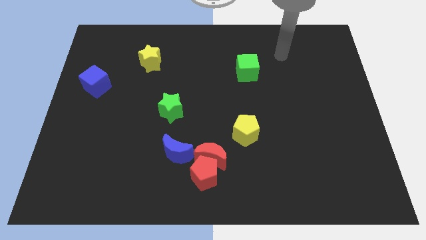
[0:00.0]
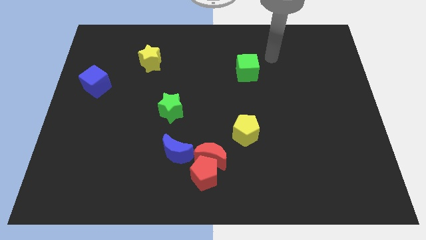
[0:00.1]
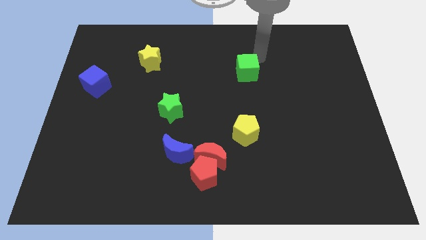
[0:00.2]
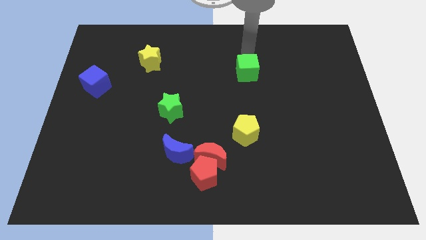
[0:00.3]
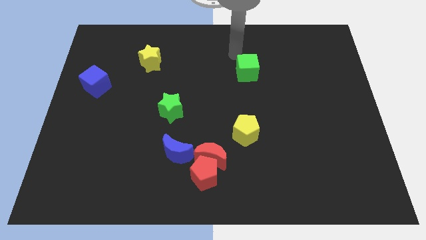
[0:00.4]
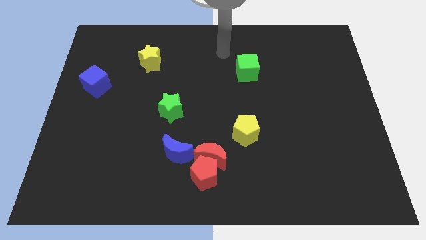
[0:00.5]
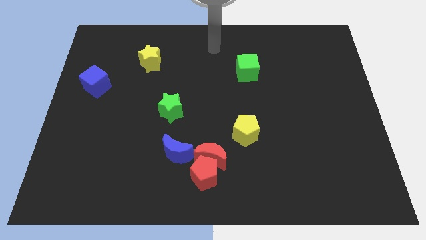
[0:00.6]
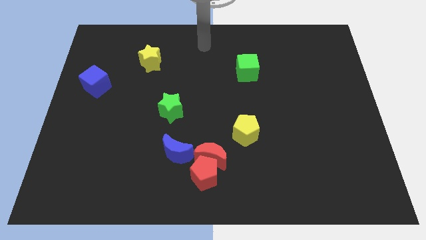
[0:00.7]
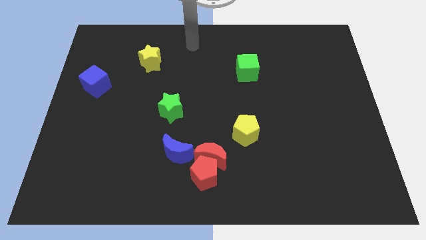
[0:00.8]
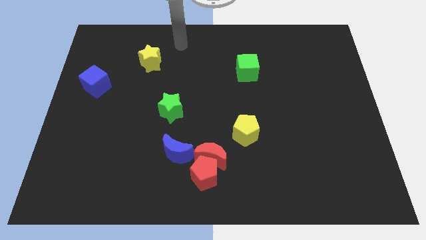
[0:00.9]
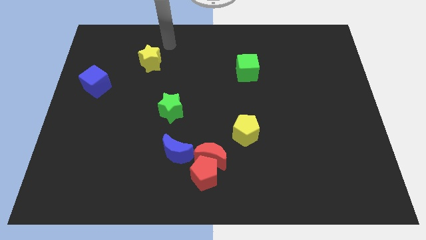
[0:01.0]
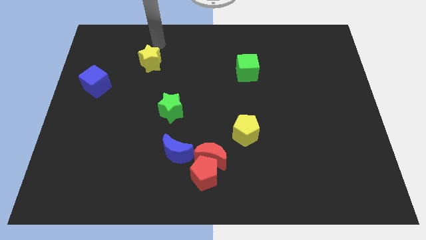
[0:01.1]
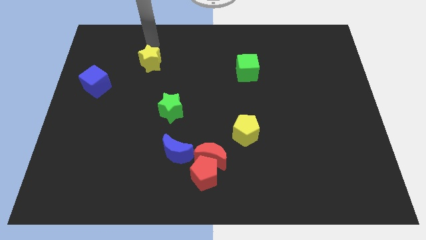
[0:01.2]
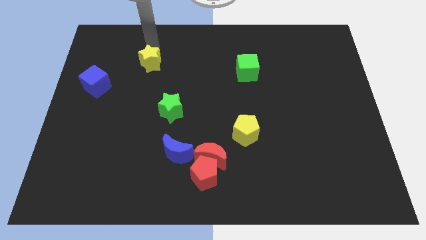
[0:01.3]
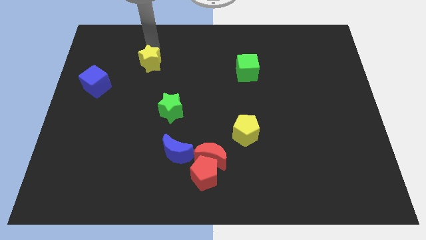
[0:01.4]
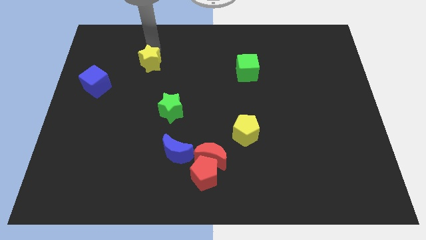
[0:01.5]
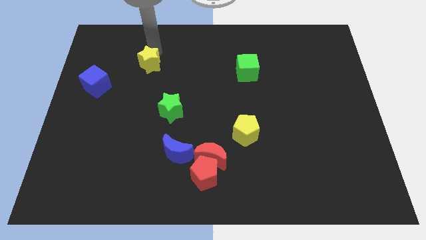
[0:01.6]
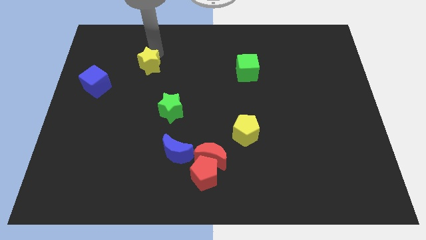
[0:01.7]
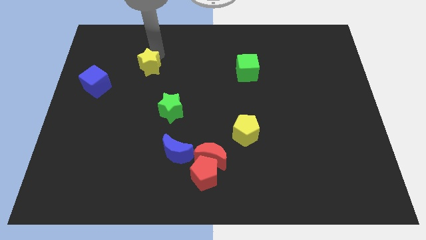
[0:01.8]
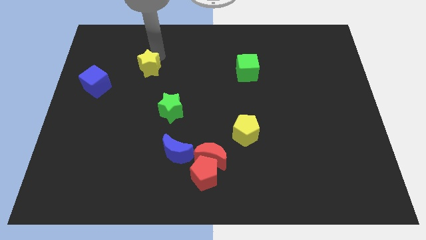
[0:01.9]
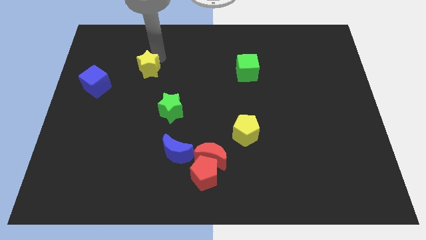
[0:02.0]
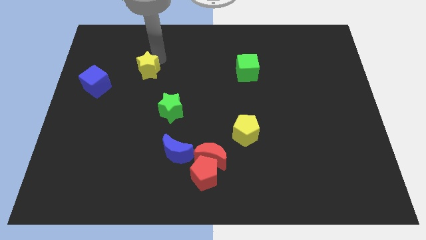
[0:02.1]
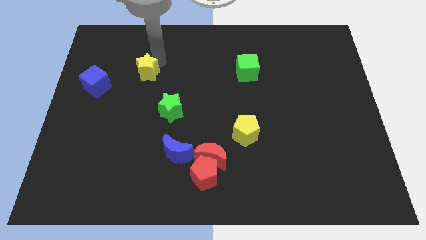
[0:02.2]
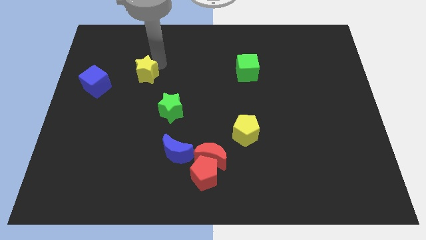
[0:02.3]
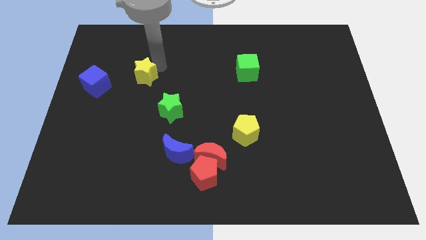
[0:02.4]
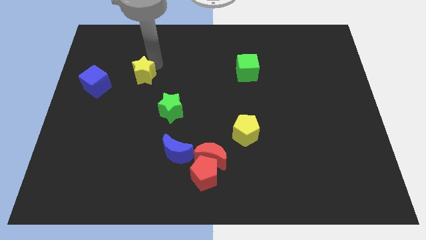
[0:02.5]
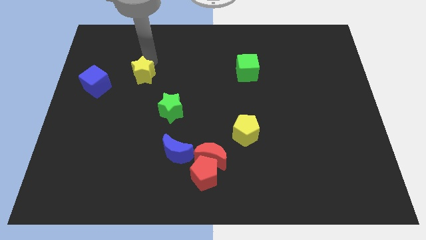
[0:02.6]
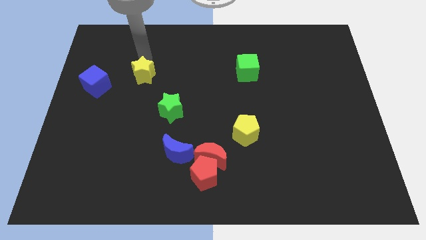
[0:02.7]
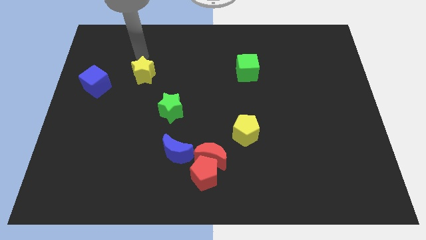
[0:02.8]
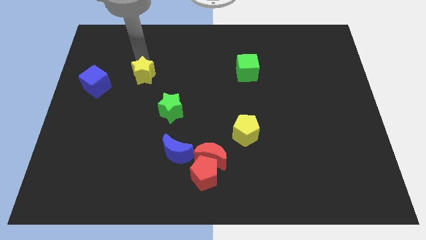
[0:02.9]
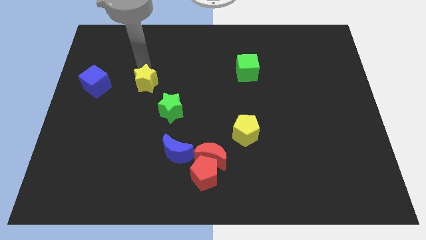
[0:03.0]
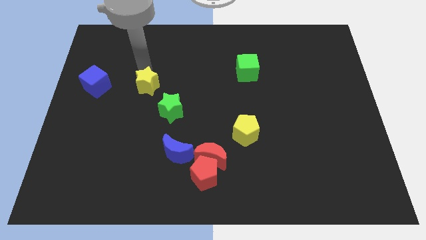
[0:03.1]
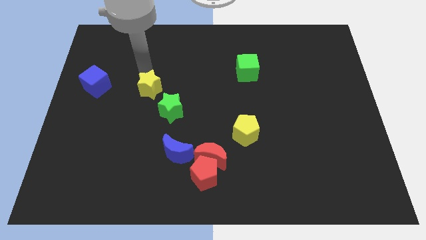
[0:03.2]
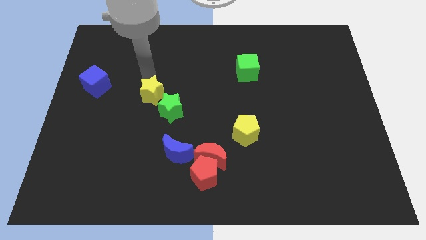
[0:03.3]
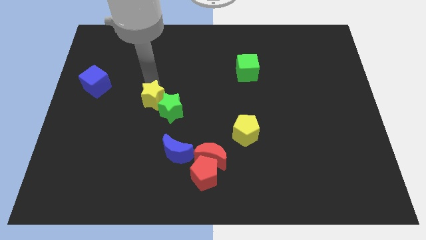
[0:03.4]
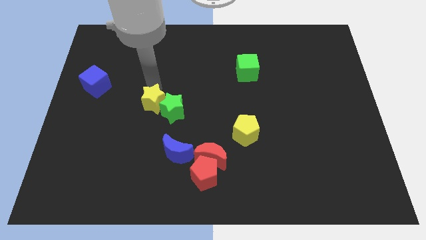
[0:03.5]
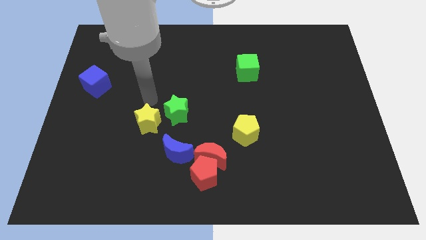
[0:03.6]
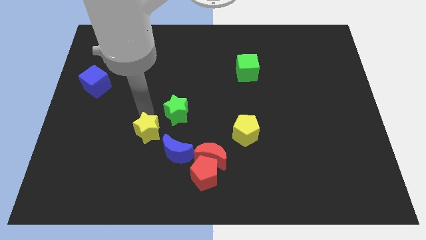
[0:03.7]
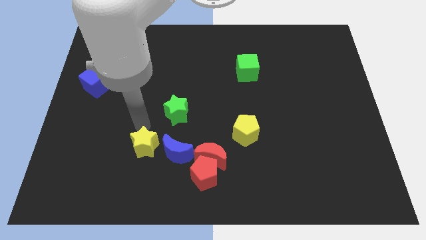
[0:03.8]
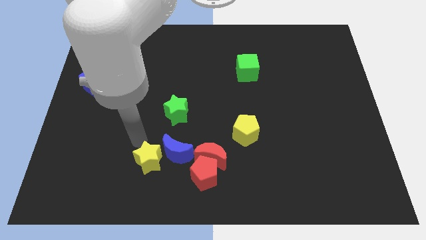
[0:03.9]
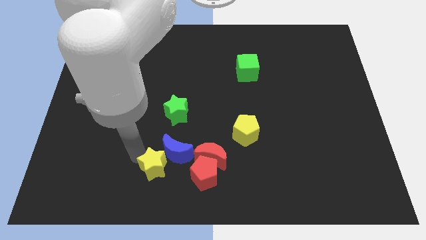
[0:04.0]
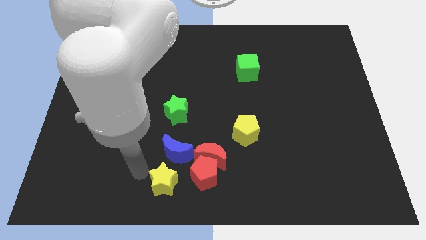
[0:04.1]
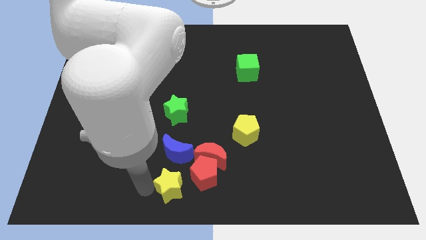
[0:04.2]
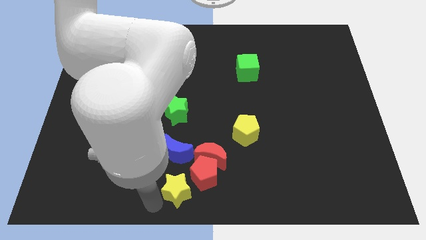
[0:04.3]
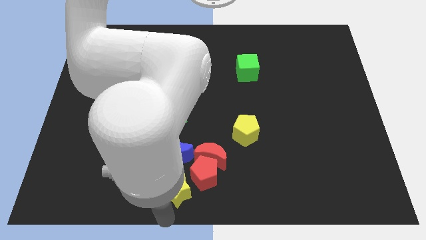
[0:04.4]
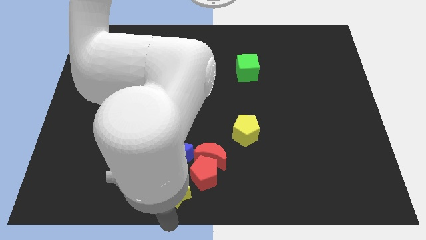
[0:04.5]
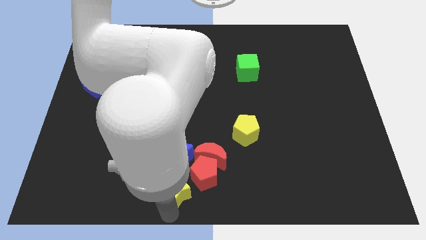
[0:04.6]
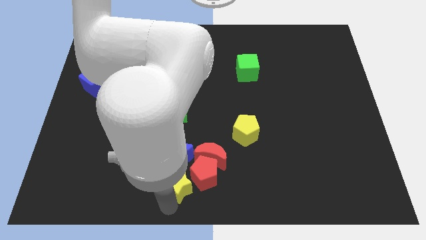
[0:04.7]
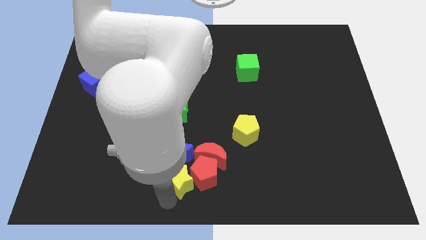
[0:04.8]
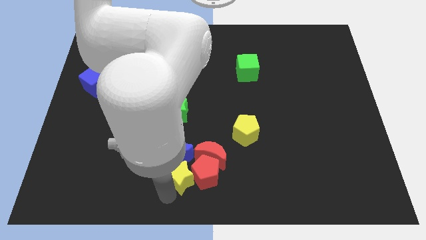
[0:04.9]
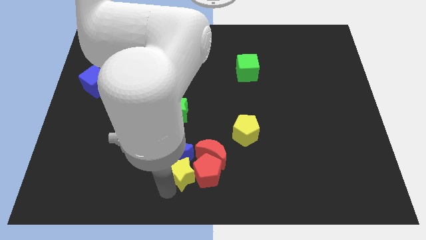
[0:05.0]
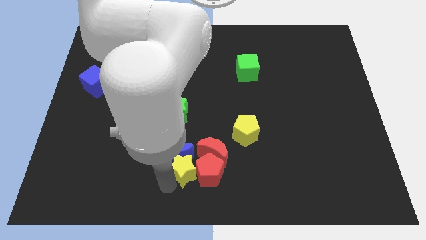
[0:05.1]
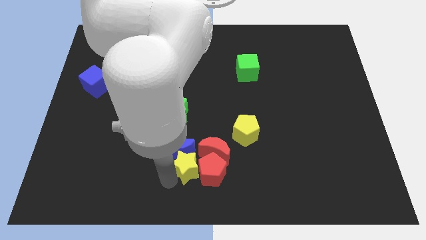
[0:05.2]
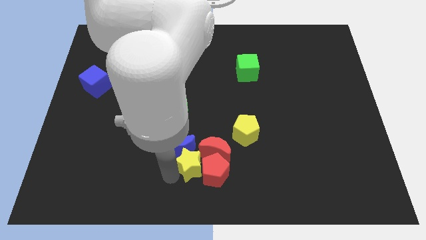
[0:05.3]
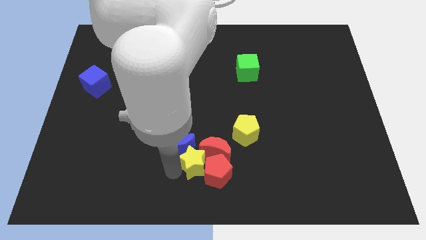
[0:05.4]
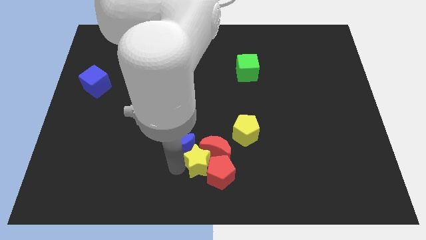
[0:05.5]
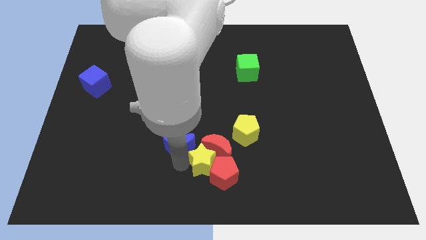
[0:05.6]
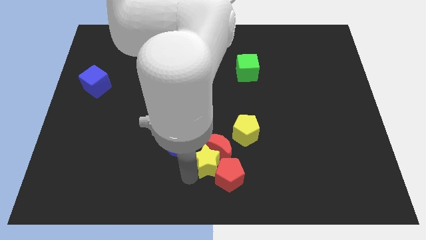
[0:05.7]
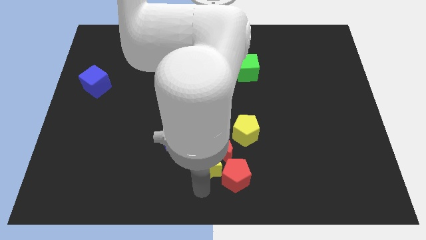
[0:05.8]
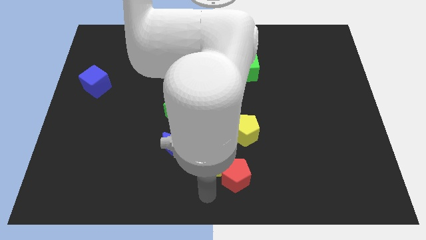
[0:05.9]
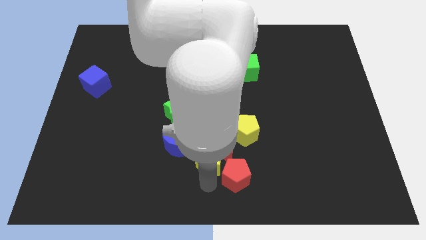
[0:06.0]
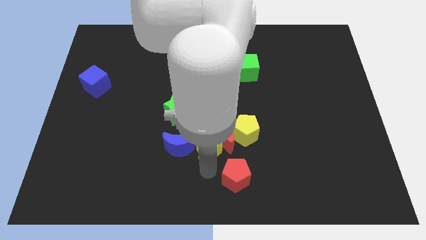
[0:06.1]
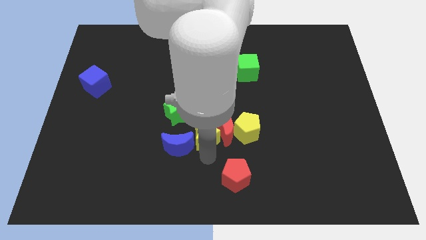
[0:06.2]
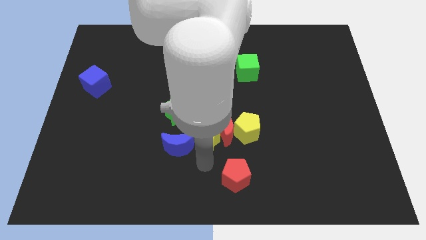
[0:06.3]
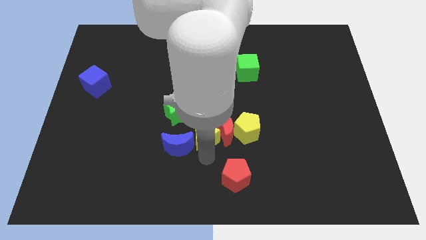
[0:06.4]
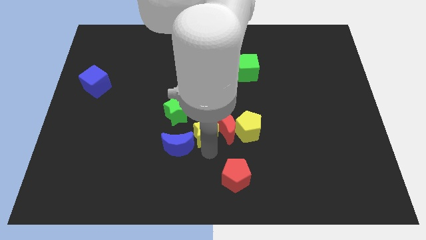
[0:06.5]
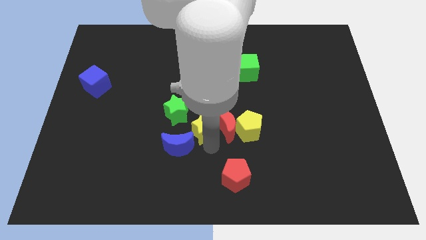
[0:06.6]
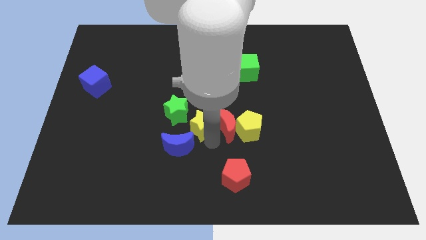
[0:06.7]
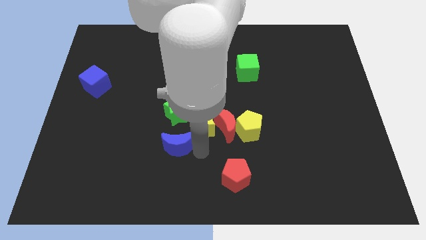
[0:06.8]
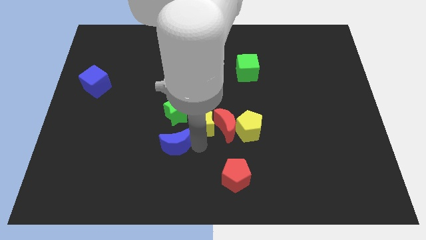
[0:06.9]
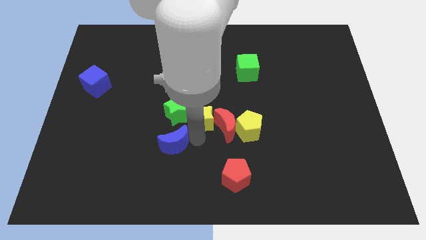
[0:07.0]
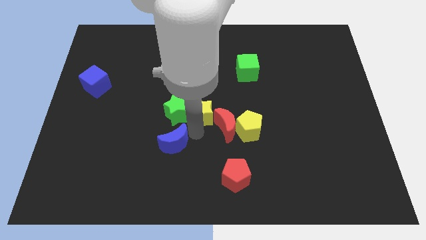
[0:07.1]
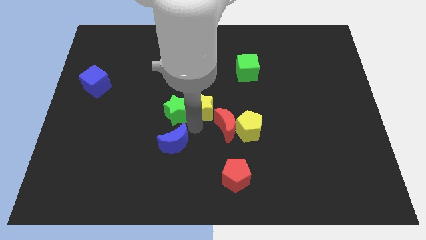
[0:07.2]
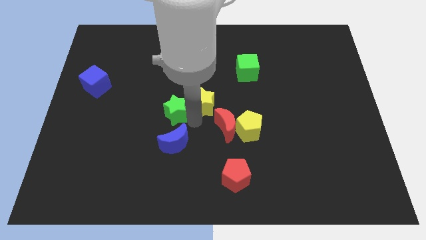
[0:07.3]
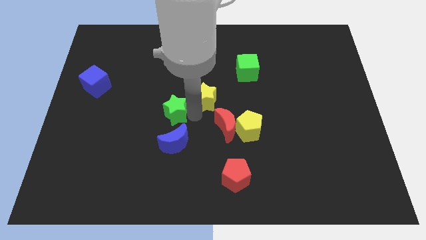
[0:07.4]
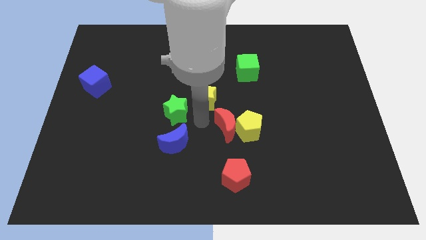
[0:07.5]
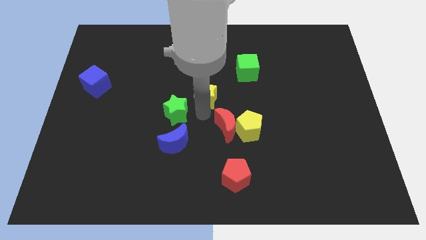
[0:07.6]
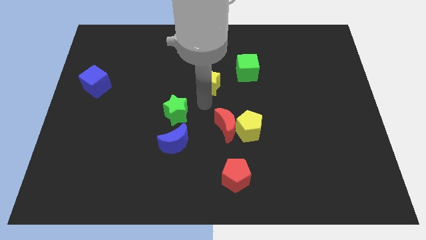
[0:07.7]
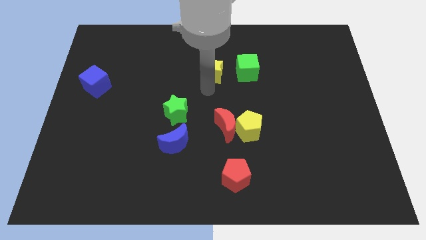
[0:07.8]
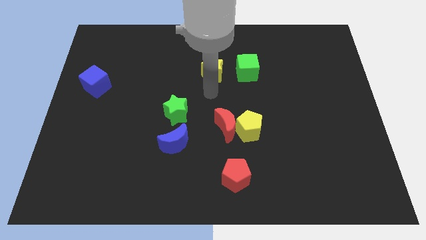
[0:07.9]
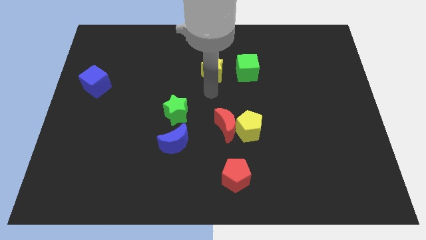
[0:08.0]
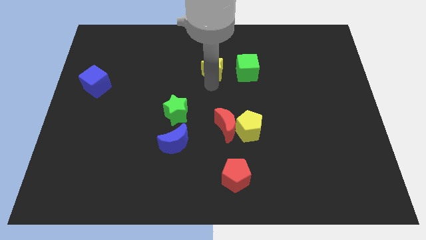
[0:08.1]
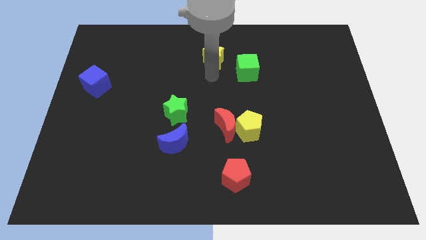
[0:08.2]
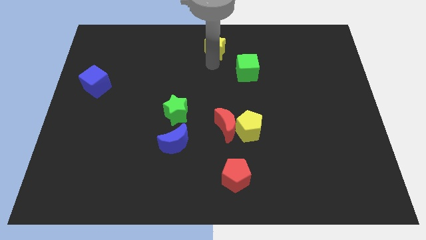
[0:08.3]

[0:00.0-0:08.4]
move the yellow star to the top side
